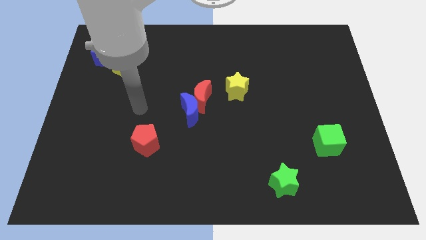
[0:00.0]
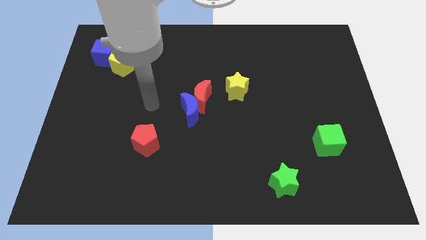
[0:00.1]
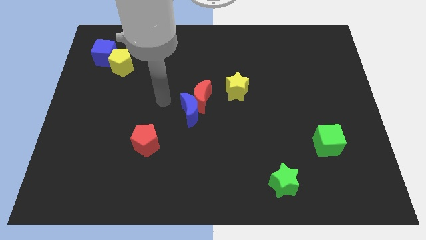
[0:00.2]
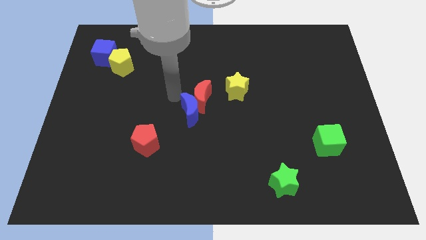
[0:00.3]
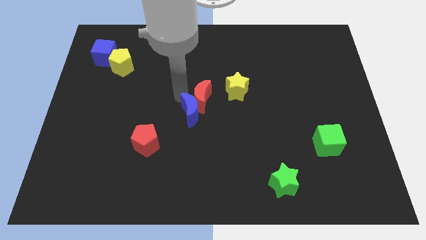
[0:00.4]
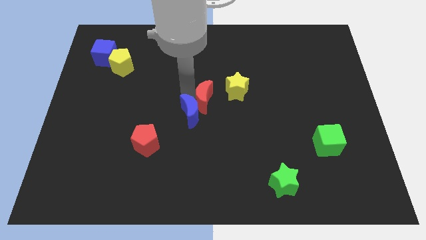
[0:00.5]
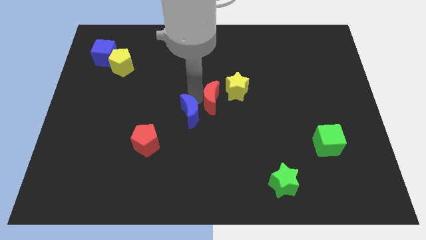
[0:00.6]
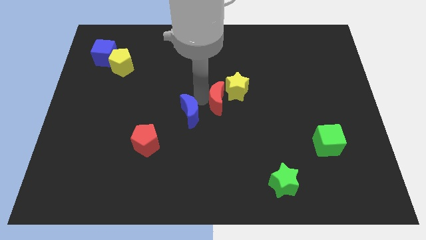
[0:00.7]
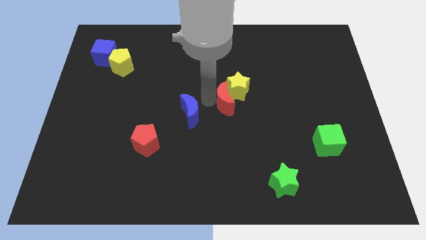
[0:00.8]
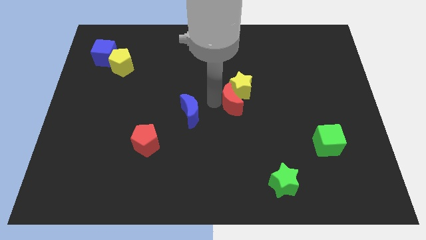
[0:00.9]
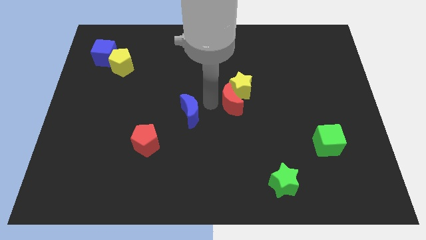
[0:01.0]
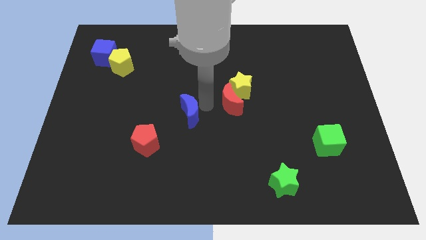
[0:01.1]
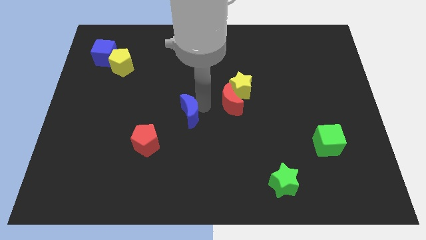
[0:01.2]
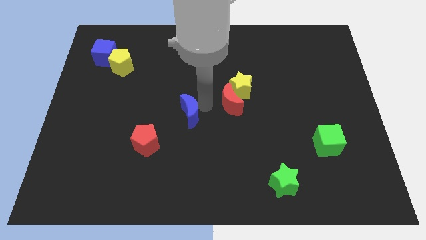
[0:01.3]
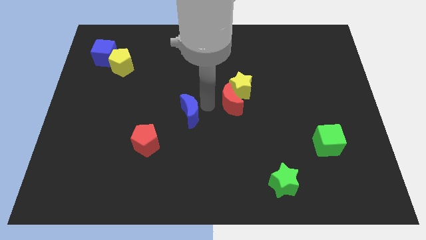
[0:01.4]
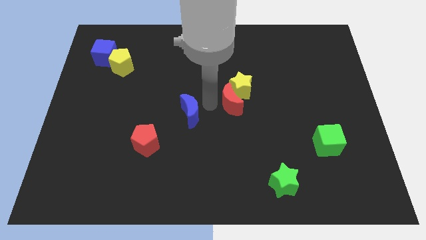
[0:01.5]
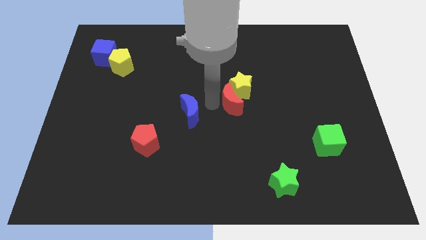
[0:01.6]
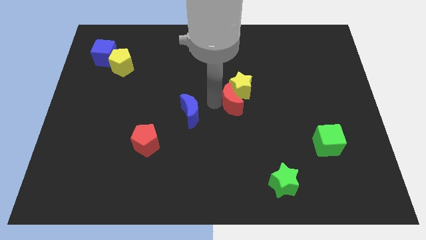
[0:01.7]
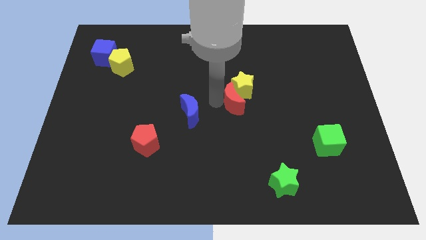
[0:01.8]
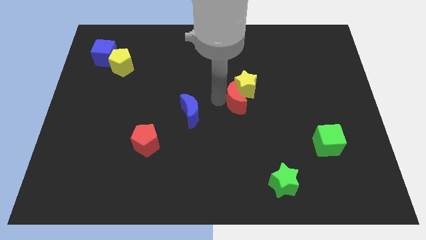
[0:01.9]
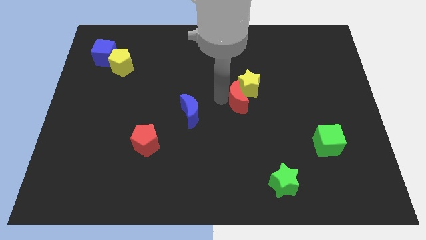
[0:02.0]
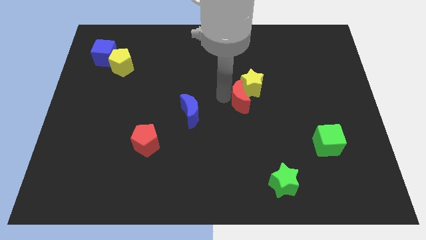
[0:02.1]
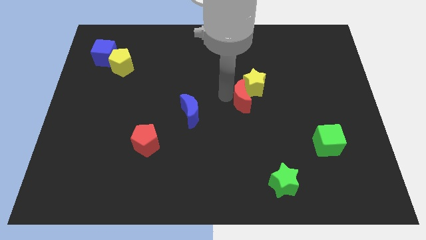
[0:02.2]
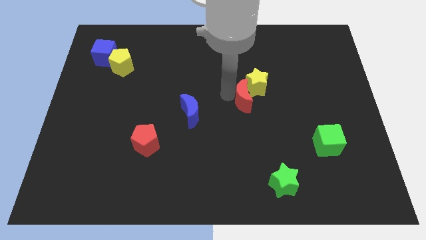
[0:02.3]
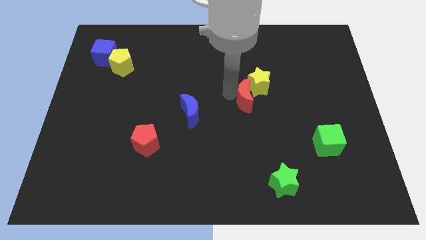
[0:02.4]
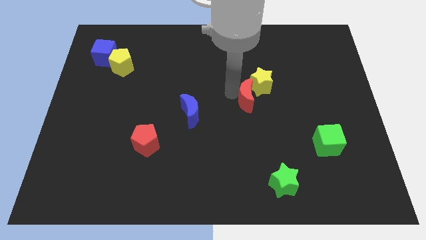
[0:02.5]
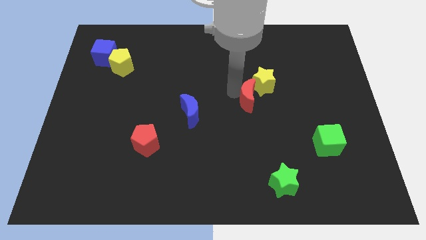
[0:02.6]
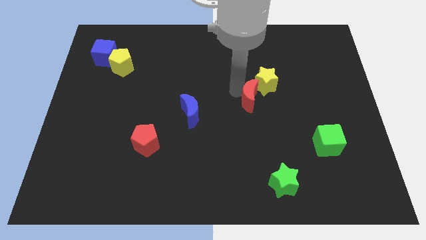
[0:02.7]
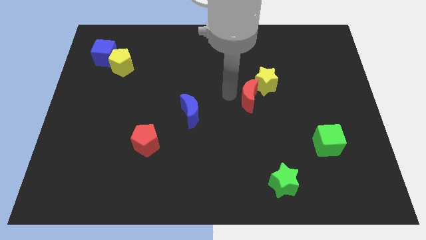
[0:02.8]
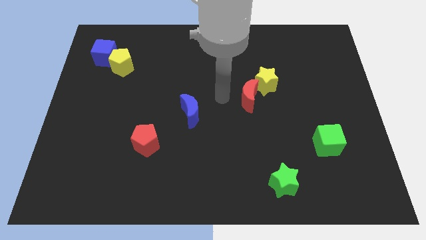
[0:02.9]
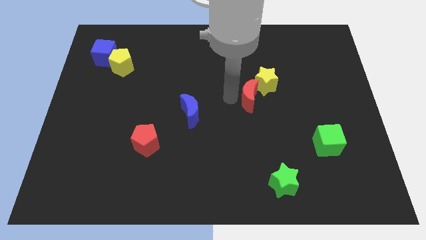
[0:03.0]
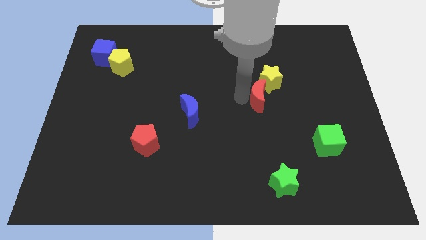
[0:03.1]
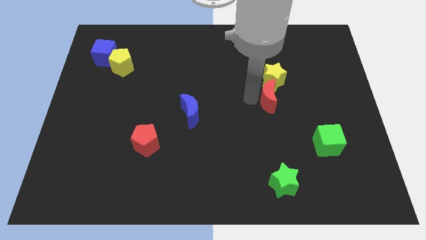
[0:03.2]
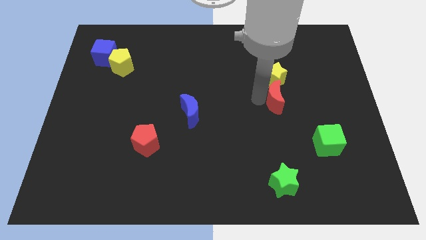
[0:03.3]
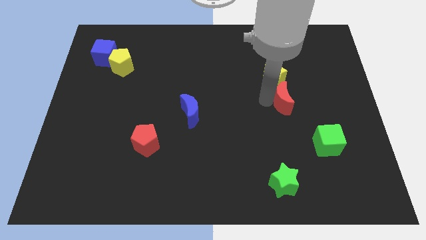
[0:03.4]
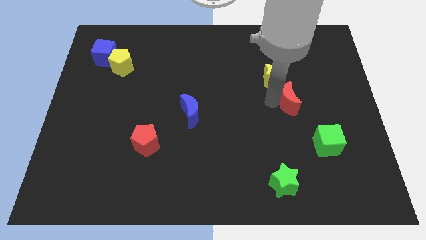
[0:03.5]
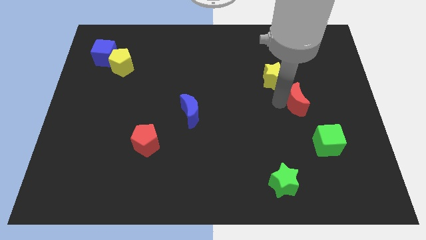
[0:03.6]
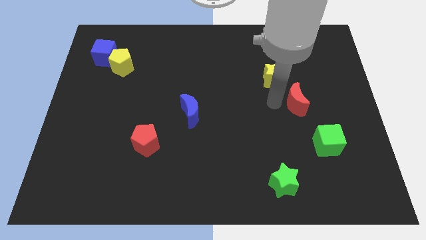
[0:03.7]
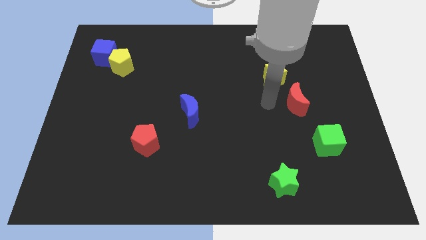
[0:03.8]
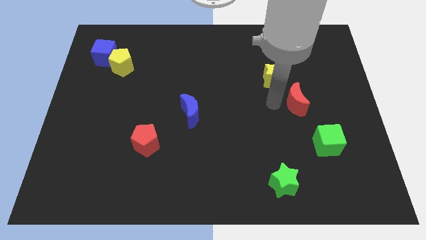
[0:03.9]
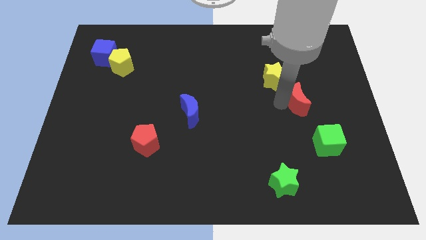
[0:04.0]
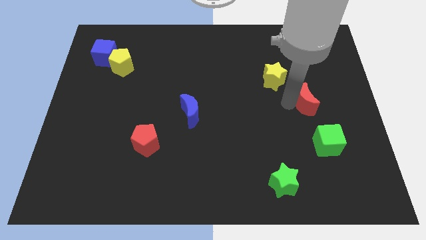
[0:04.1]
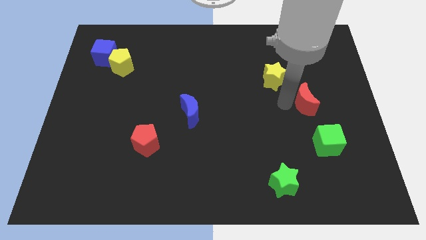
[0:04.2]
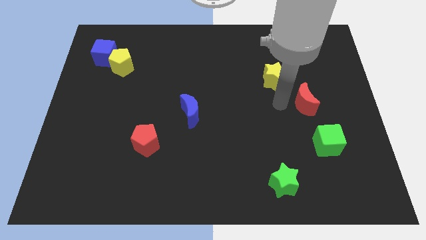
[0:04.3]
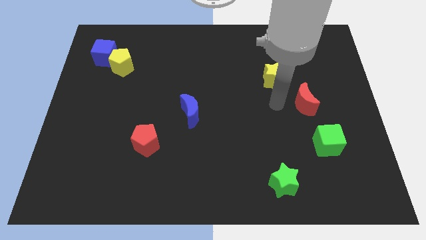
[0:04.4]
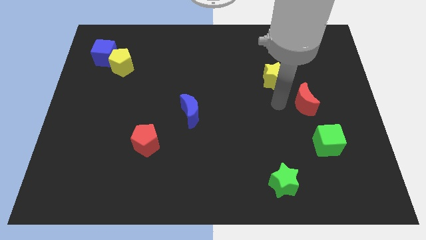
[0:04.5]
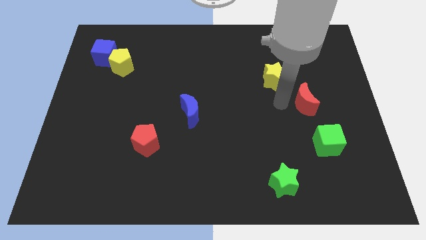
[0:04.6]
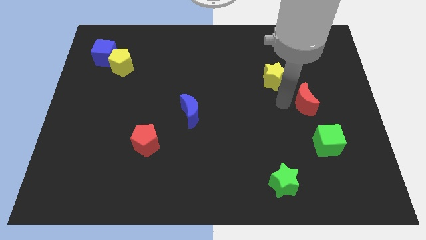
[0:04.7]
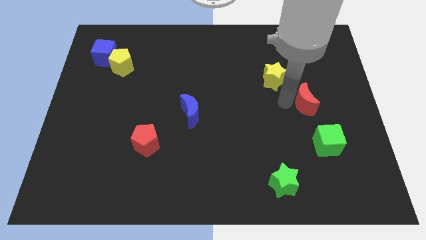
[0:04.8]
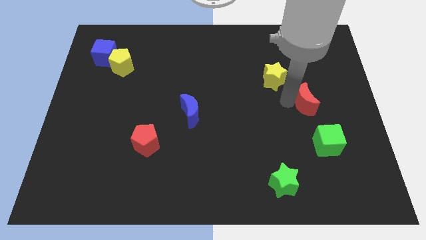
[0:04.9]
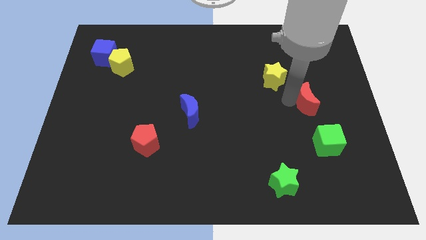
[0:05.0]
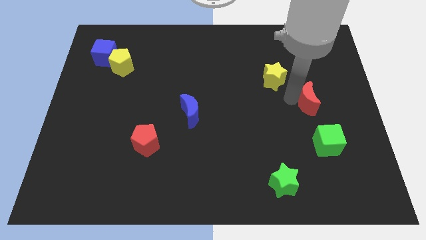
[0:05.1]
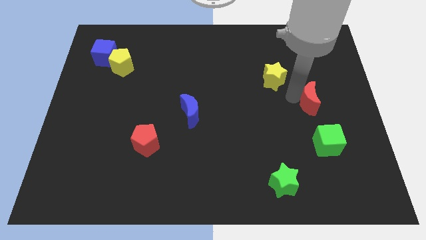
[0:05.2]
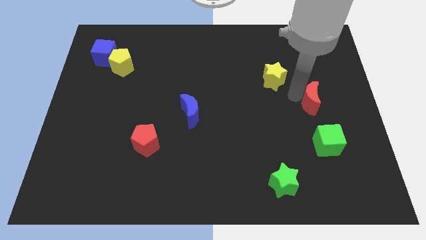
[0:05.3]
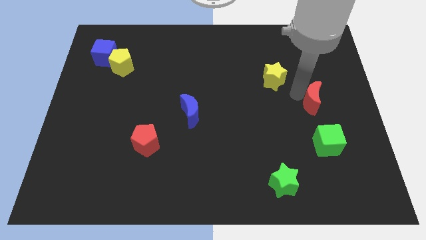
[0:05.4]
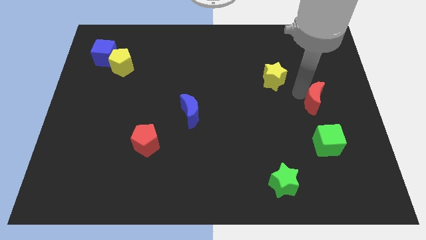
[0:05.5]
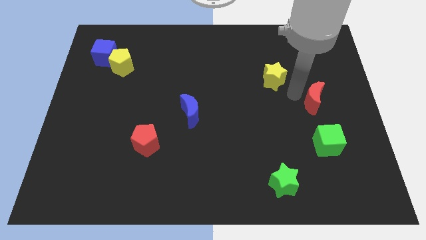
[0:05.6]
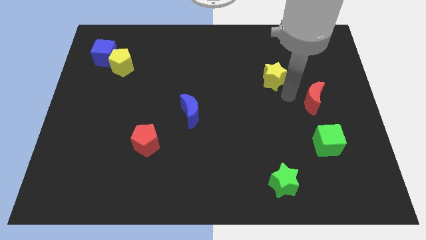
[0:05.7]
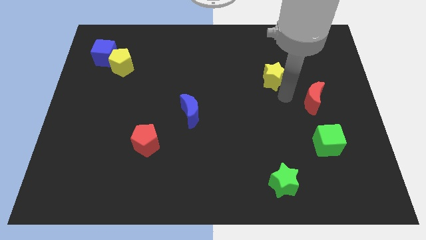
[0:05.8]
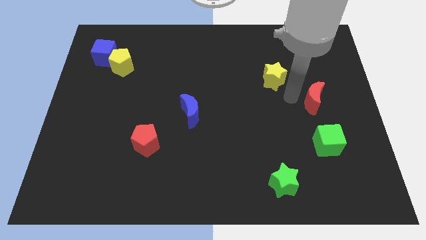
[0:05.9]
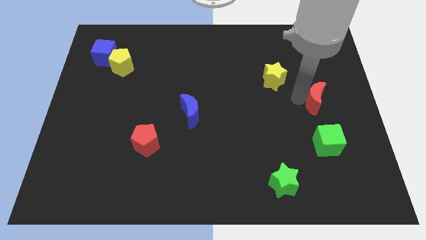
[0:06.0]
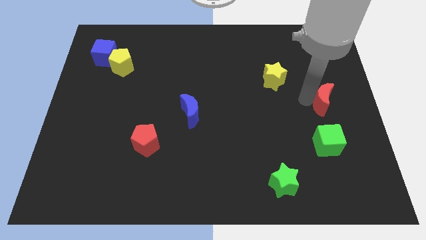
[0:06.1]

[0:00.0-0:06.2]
slide the red moon to the right side of the board
